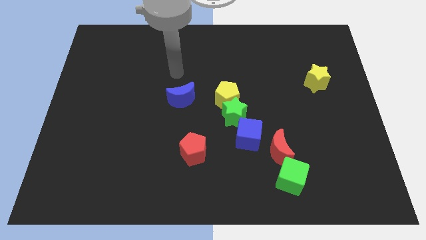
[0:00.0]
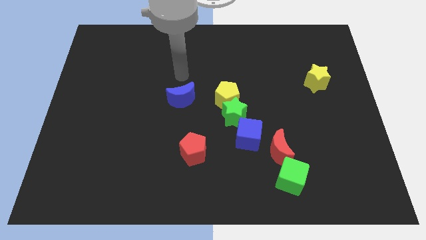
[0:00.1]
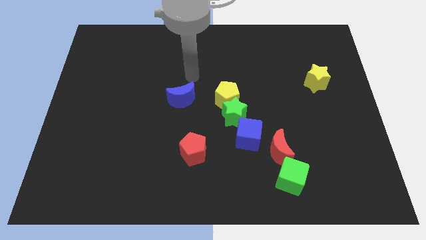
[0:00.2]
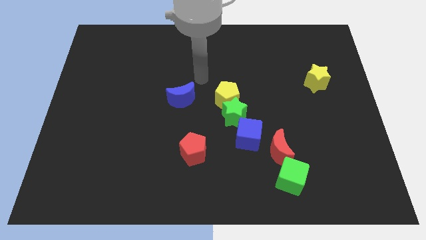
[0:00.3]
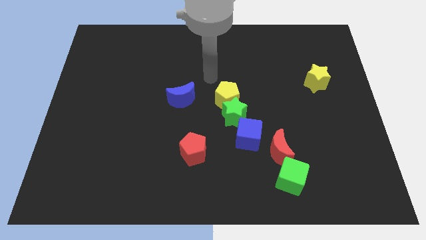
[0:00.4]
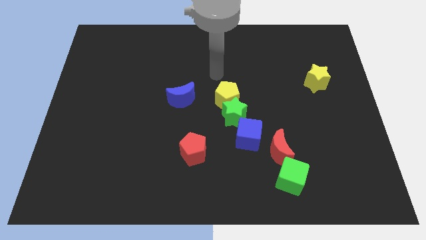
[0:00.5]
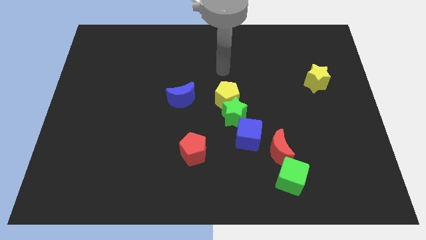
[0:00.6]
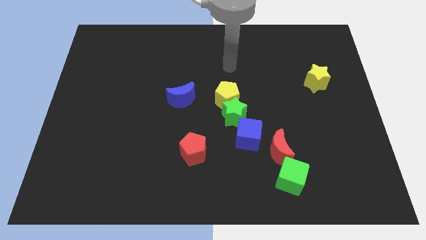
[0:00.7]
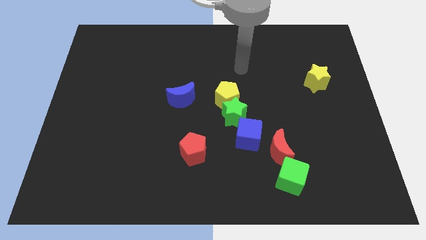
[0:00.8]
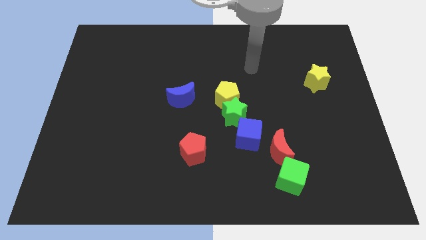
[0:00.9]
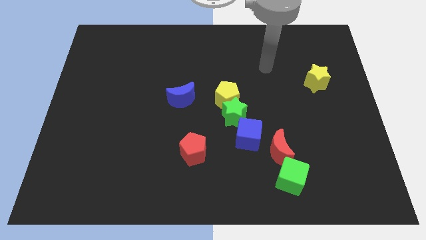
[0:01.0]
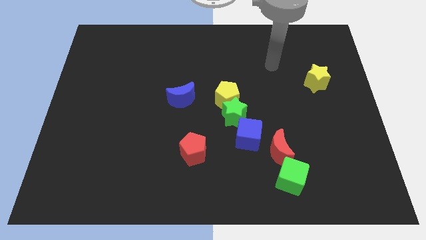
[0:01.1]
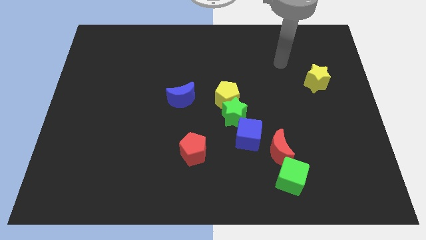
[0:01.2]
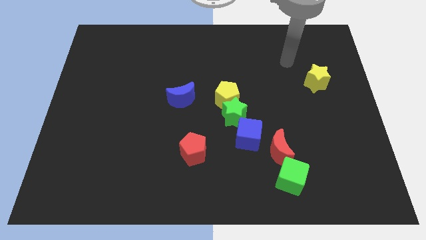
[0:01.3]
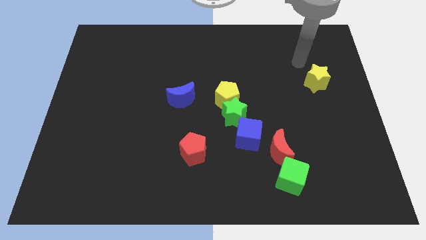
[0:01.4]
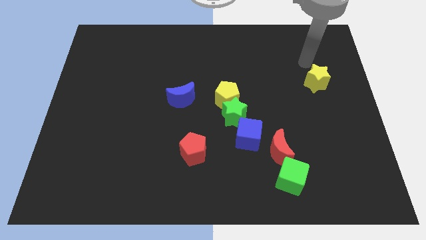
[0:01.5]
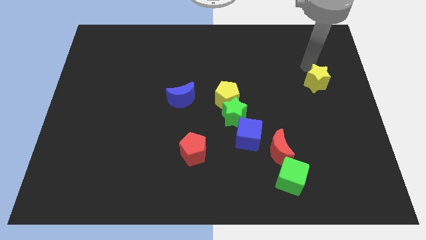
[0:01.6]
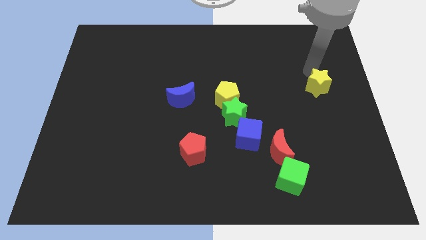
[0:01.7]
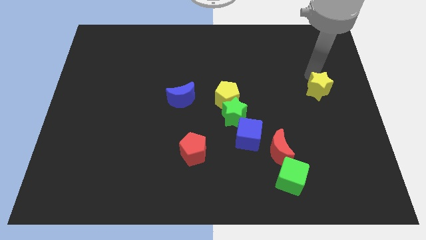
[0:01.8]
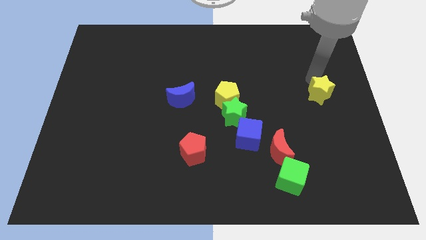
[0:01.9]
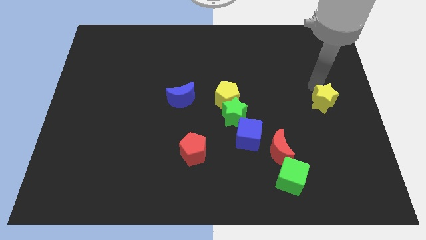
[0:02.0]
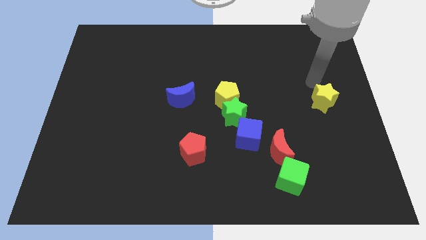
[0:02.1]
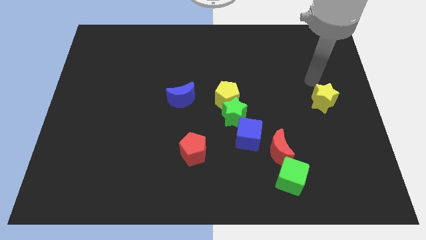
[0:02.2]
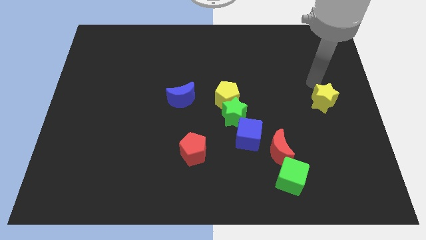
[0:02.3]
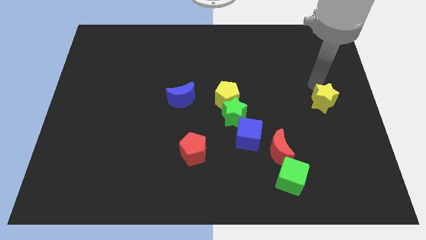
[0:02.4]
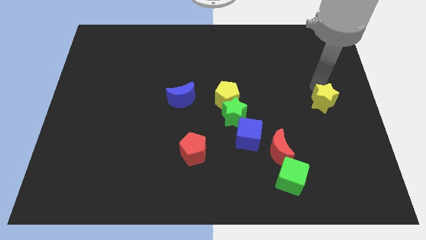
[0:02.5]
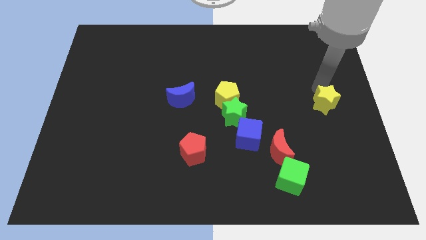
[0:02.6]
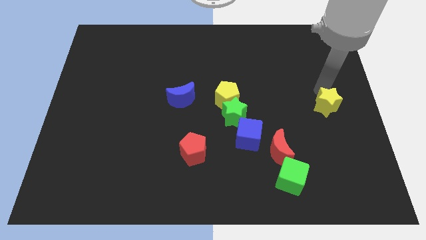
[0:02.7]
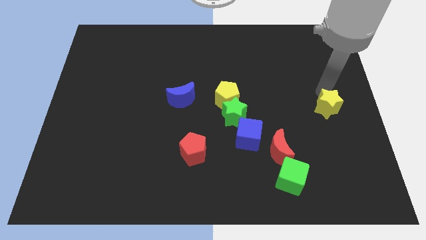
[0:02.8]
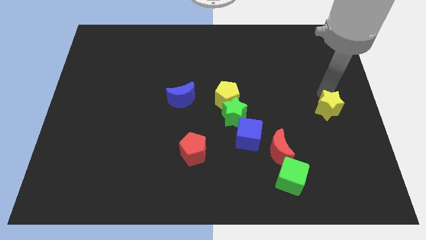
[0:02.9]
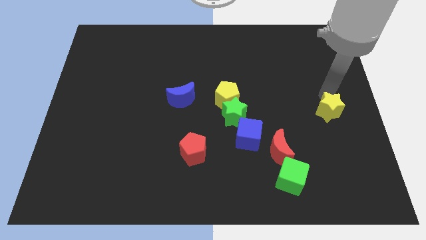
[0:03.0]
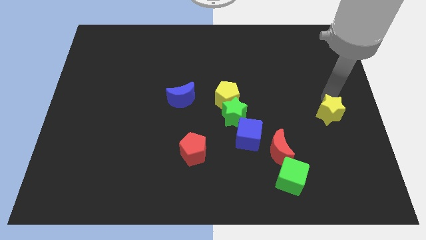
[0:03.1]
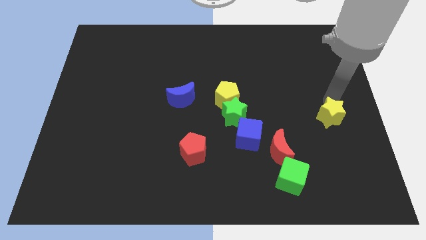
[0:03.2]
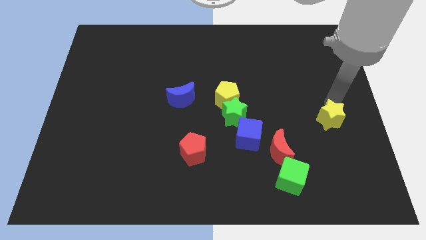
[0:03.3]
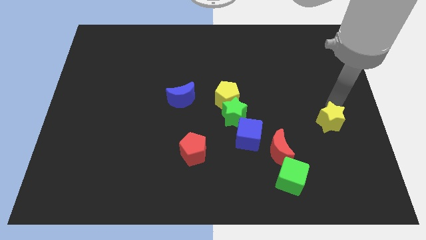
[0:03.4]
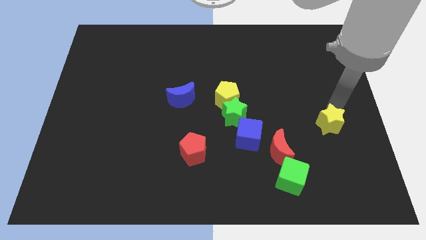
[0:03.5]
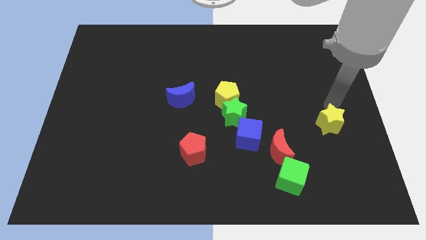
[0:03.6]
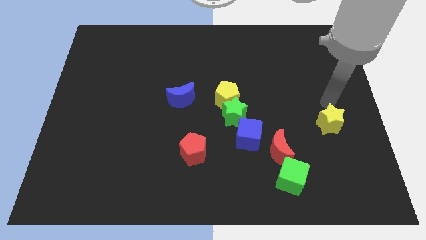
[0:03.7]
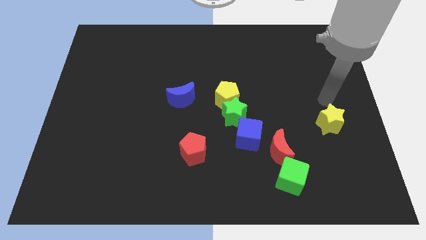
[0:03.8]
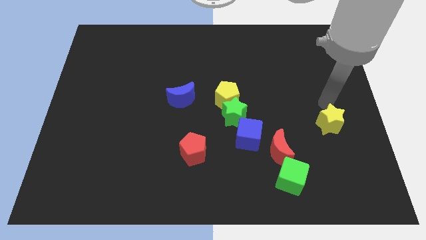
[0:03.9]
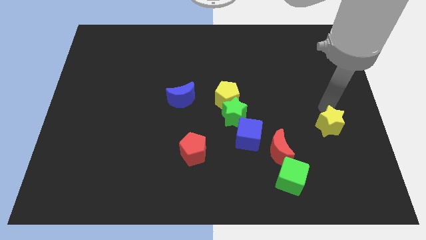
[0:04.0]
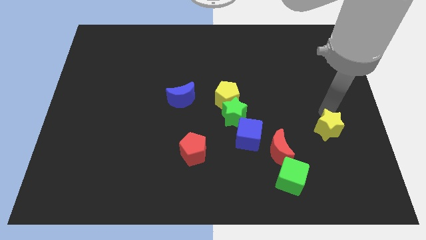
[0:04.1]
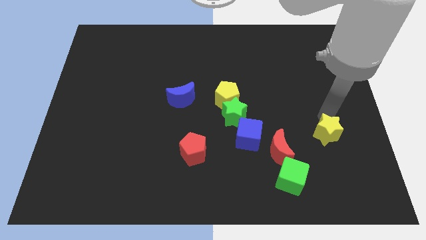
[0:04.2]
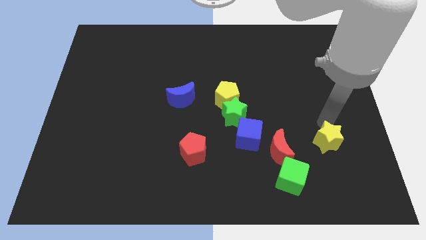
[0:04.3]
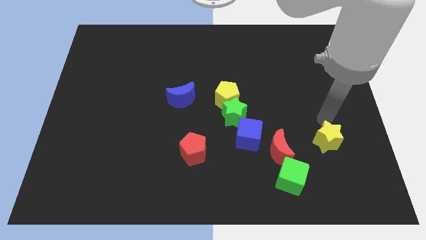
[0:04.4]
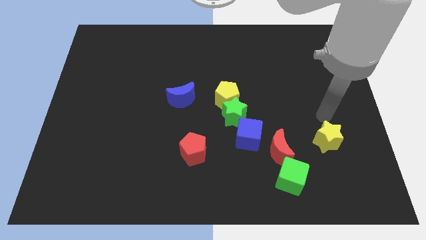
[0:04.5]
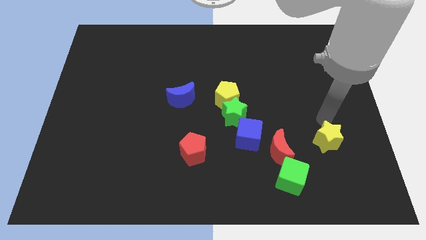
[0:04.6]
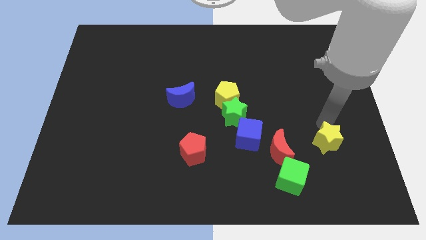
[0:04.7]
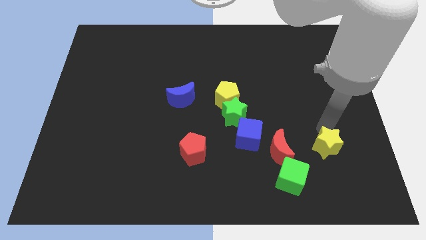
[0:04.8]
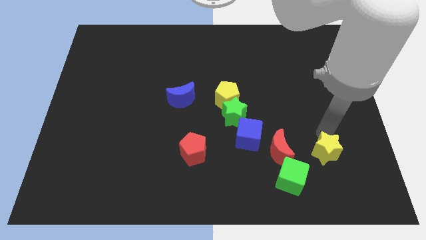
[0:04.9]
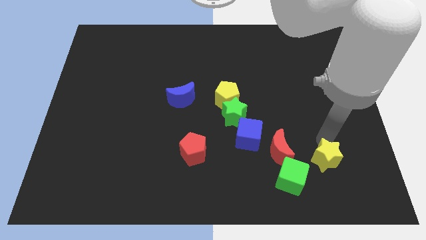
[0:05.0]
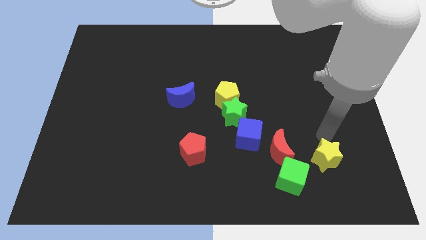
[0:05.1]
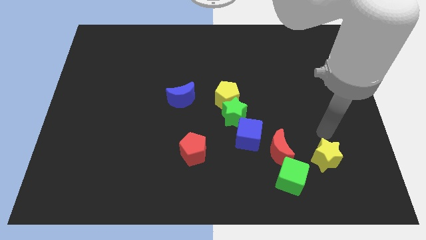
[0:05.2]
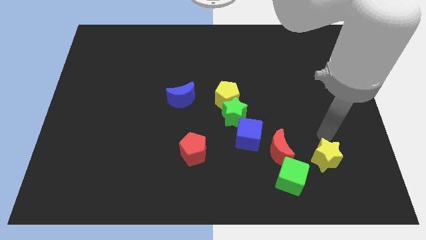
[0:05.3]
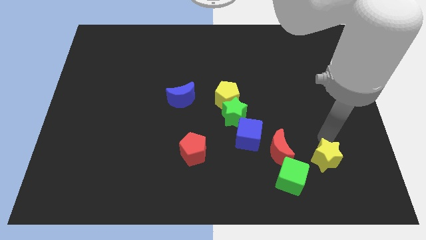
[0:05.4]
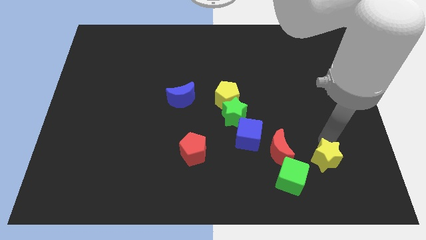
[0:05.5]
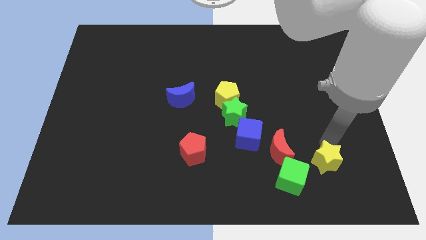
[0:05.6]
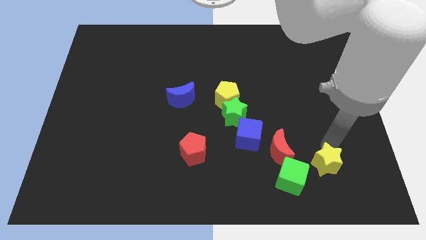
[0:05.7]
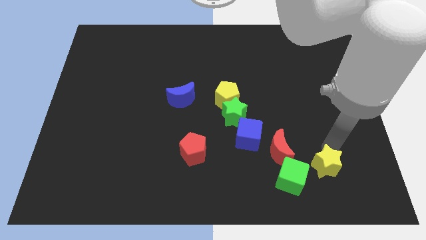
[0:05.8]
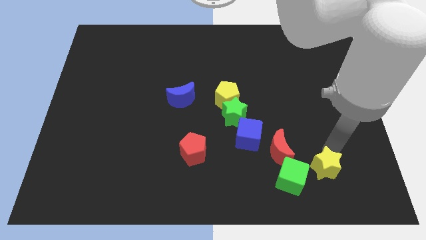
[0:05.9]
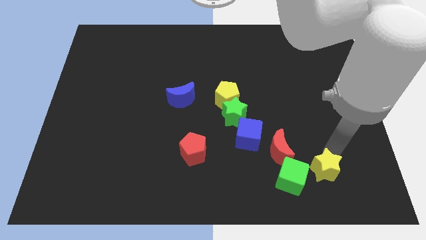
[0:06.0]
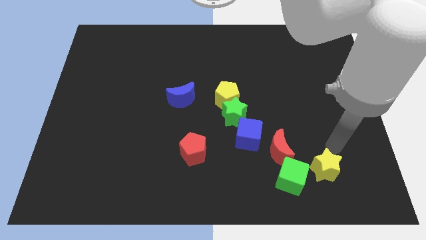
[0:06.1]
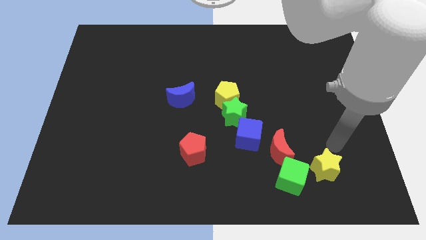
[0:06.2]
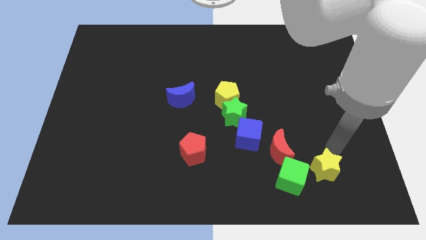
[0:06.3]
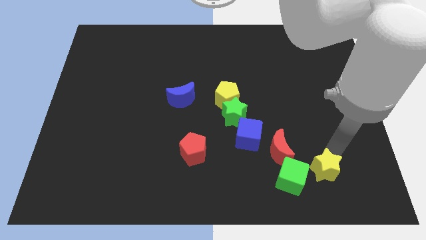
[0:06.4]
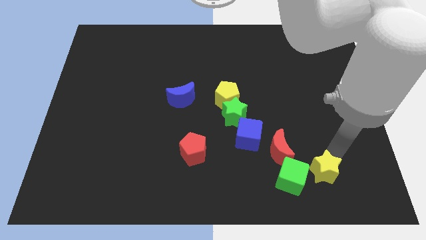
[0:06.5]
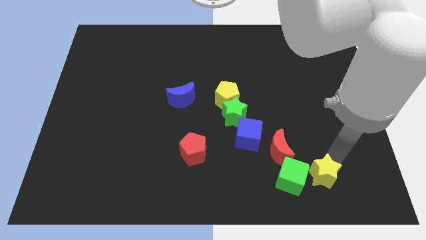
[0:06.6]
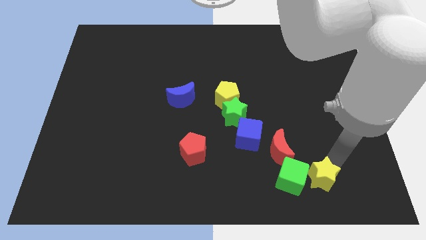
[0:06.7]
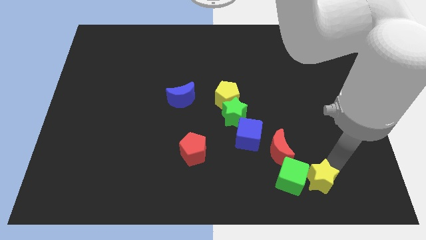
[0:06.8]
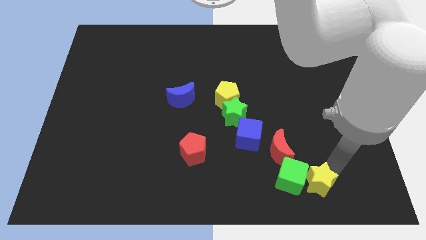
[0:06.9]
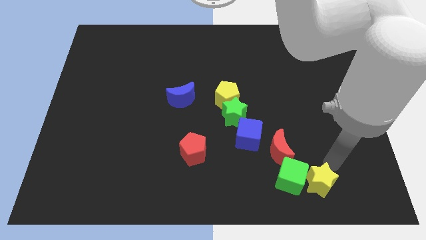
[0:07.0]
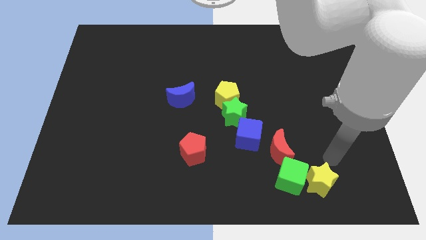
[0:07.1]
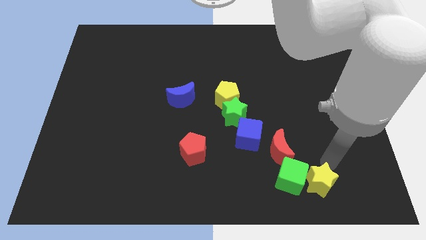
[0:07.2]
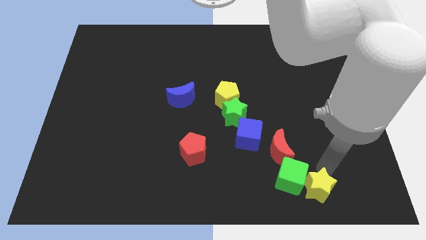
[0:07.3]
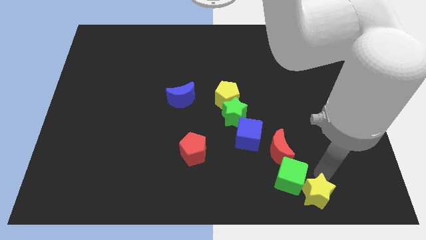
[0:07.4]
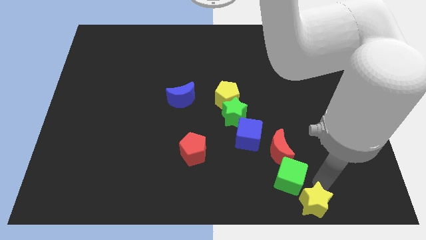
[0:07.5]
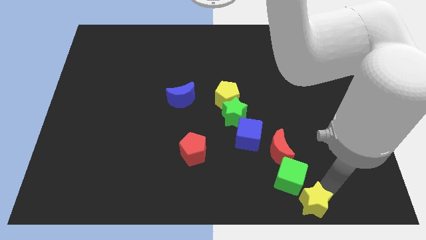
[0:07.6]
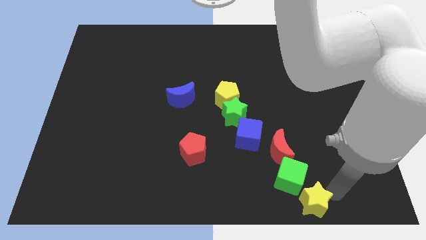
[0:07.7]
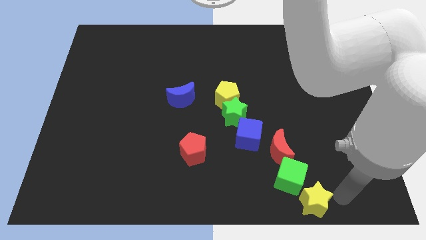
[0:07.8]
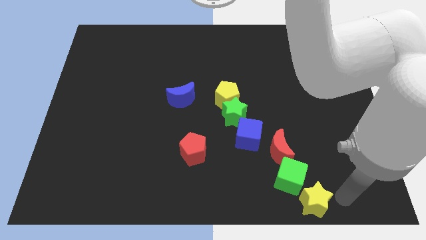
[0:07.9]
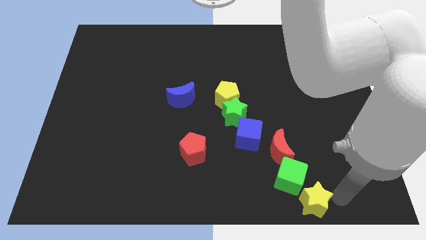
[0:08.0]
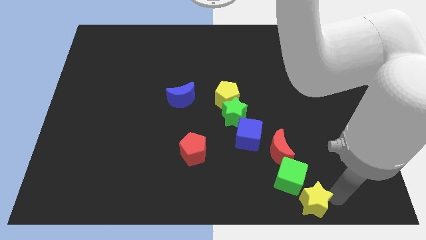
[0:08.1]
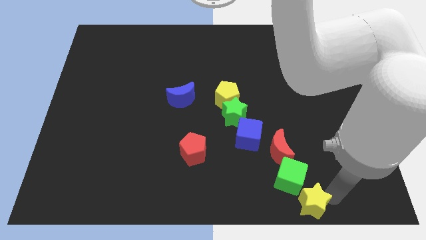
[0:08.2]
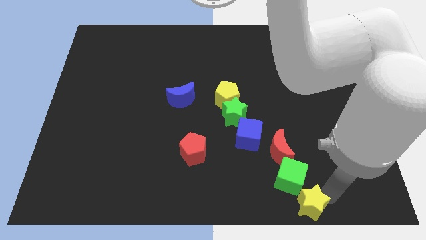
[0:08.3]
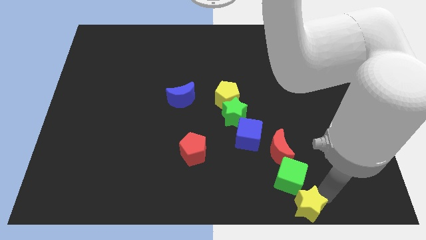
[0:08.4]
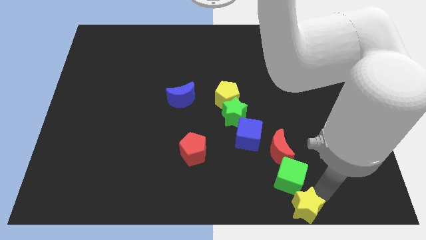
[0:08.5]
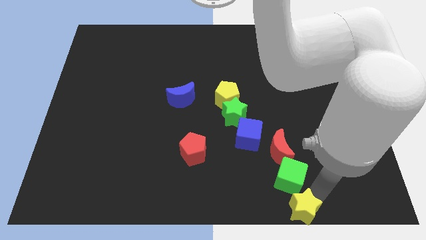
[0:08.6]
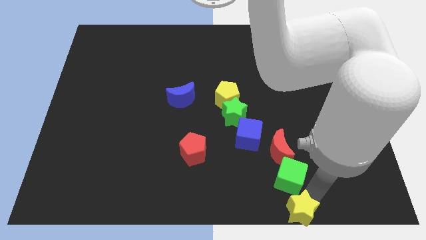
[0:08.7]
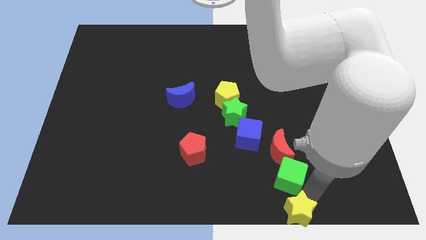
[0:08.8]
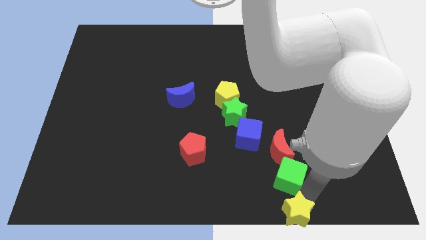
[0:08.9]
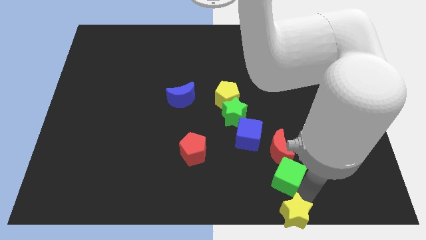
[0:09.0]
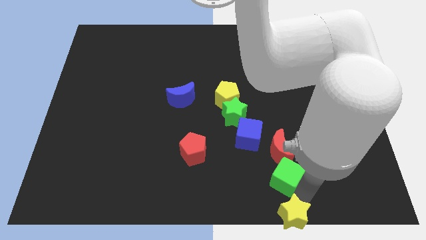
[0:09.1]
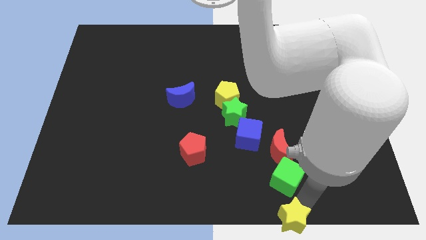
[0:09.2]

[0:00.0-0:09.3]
move the yellow star to the bottom side
